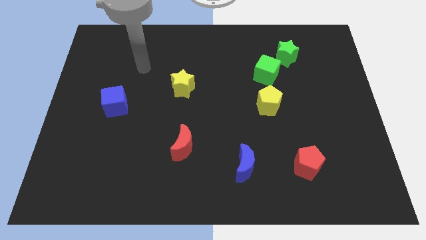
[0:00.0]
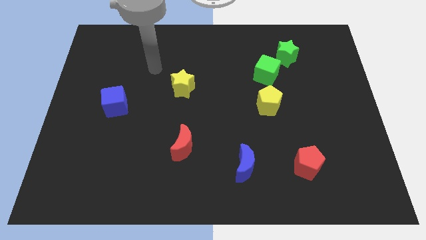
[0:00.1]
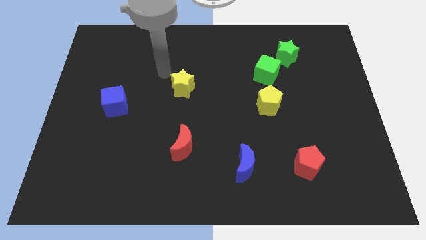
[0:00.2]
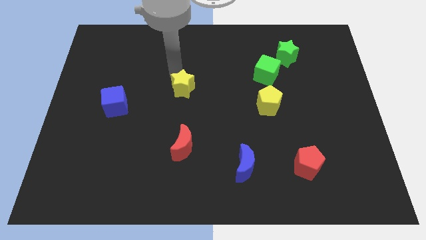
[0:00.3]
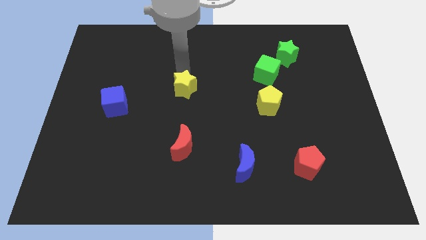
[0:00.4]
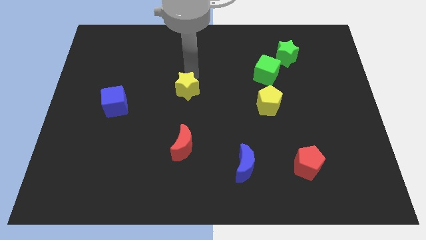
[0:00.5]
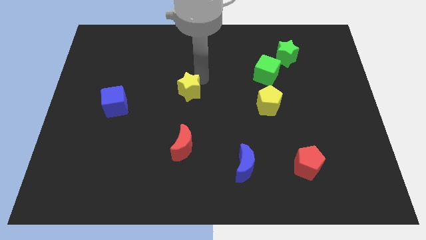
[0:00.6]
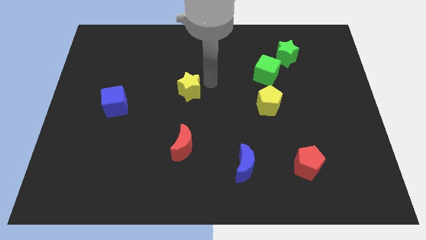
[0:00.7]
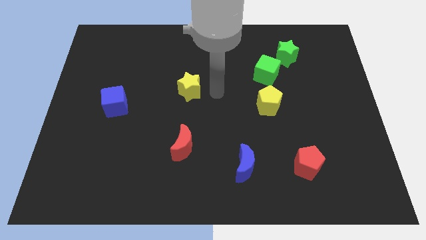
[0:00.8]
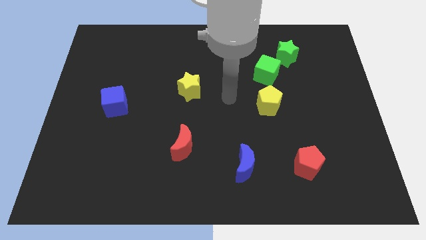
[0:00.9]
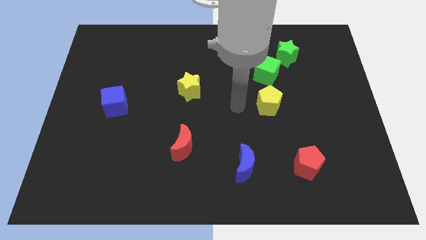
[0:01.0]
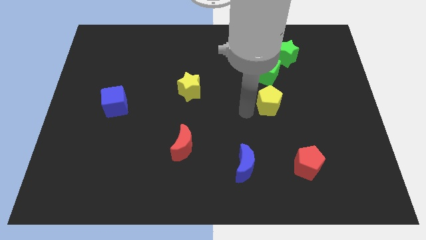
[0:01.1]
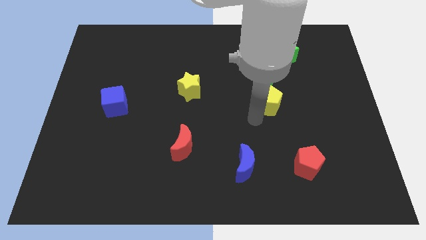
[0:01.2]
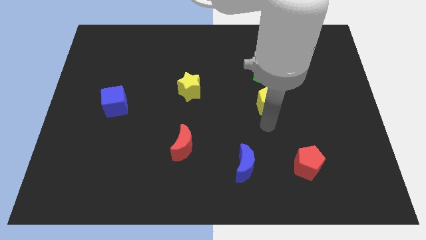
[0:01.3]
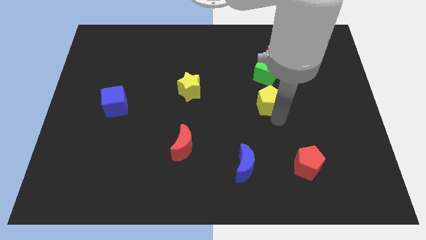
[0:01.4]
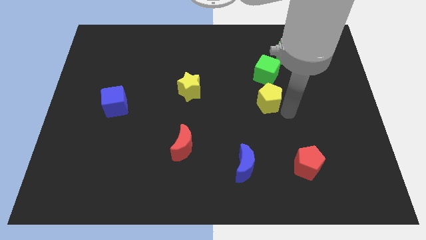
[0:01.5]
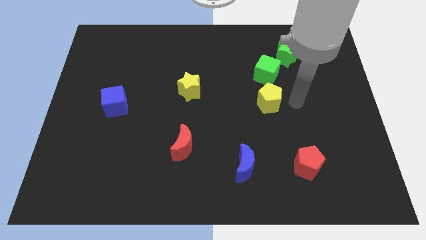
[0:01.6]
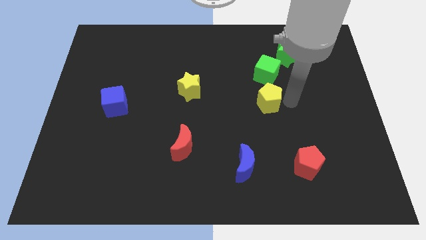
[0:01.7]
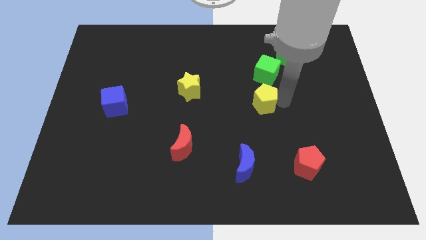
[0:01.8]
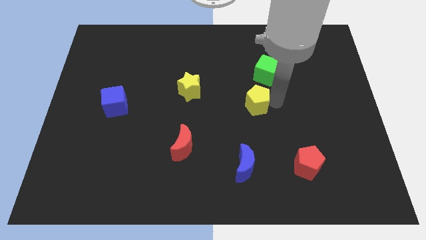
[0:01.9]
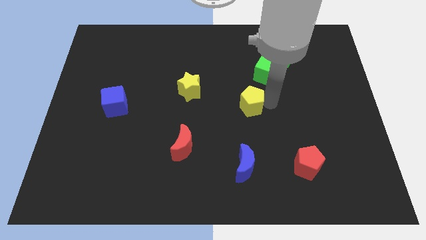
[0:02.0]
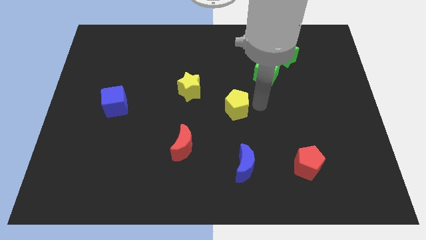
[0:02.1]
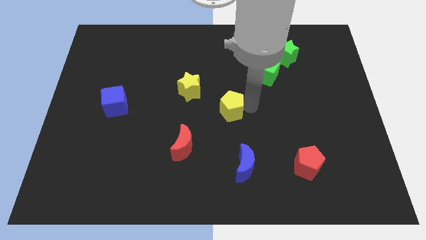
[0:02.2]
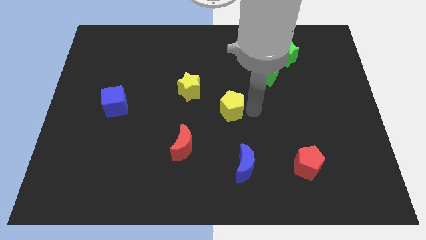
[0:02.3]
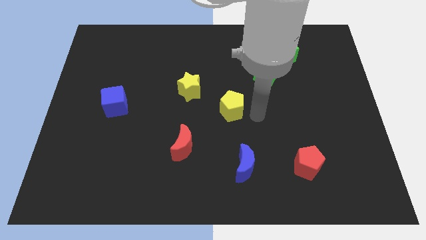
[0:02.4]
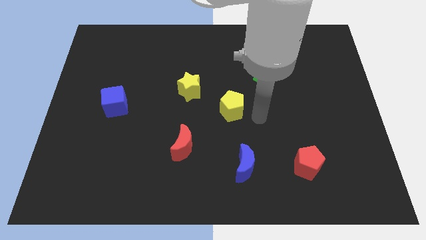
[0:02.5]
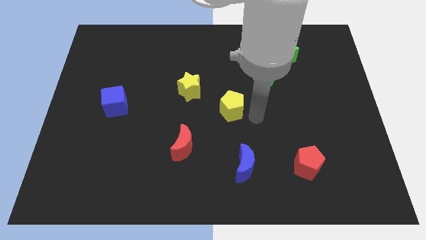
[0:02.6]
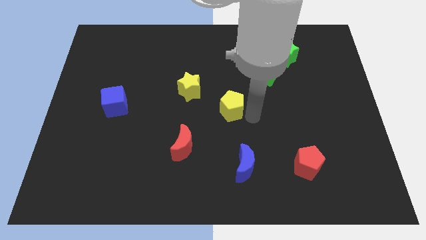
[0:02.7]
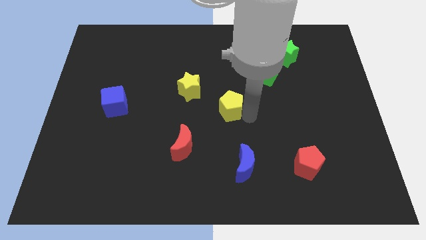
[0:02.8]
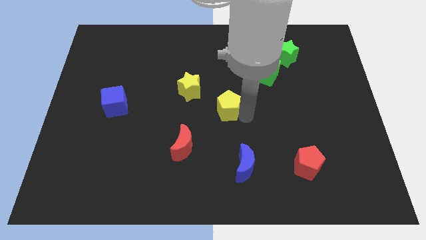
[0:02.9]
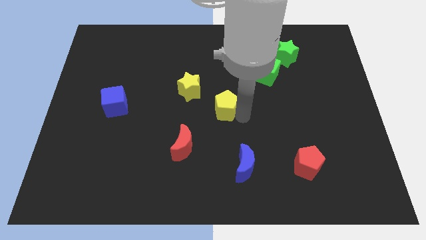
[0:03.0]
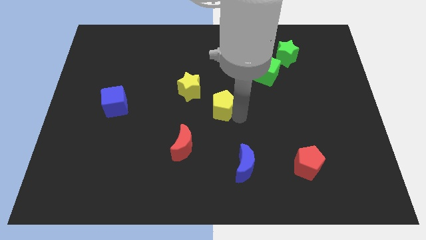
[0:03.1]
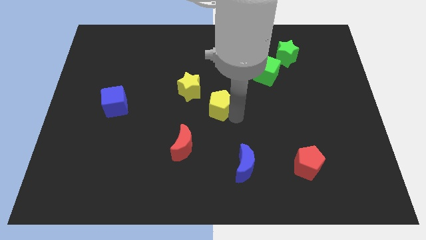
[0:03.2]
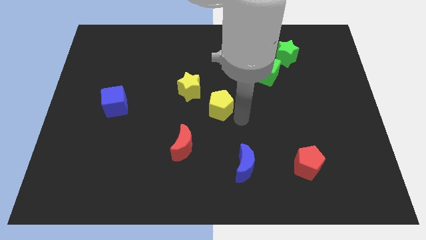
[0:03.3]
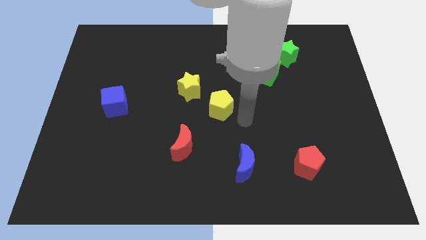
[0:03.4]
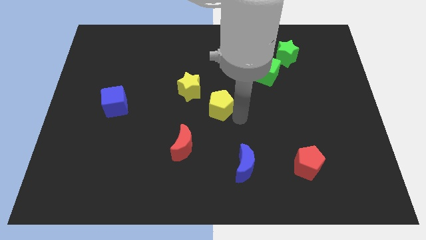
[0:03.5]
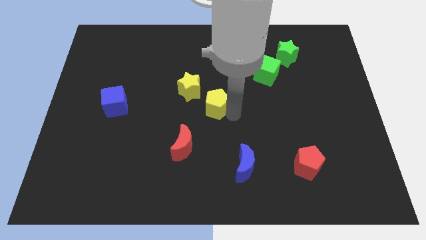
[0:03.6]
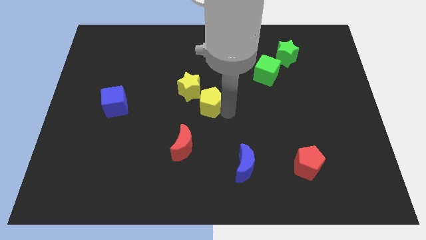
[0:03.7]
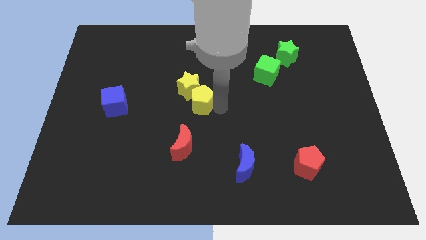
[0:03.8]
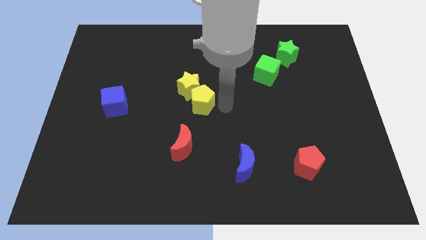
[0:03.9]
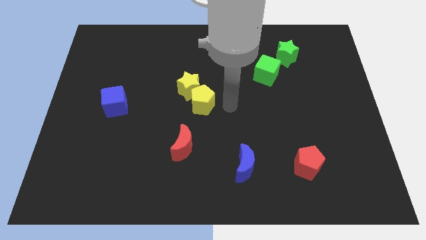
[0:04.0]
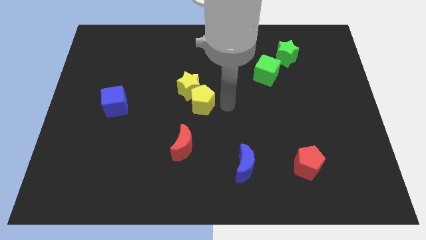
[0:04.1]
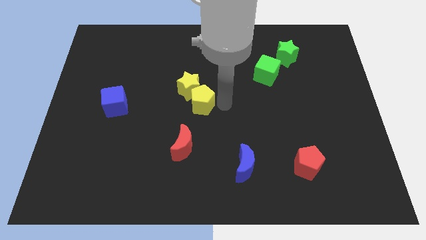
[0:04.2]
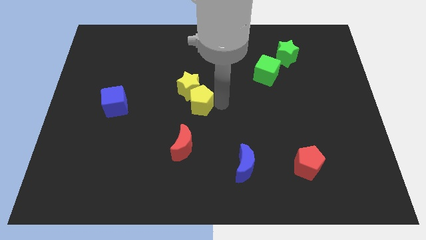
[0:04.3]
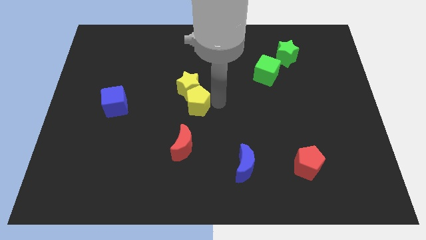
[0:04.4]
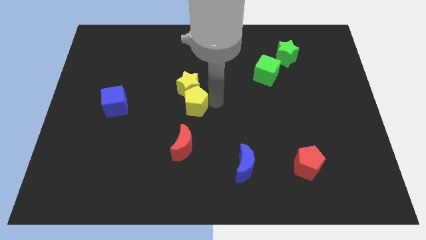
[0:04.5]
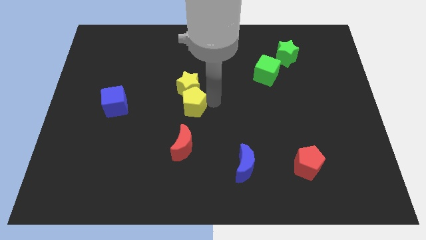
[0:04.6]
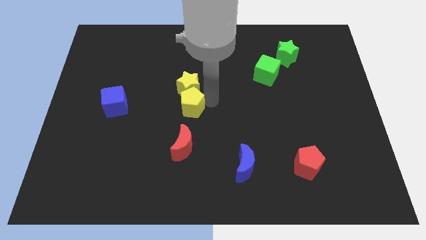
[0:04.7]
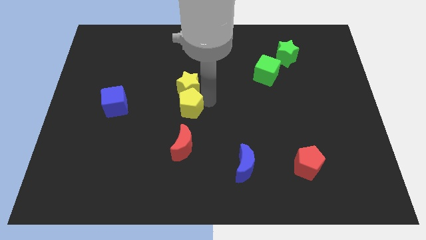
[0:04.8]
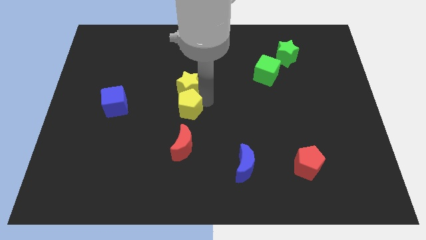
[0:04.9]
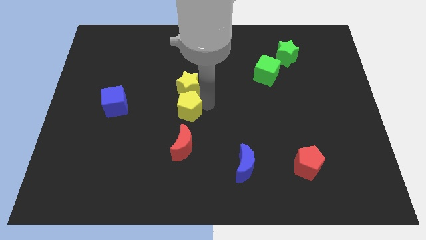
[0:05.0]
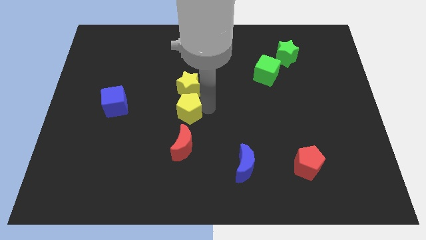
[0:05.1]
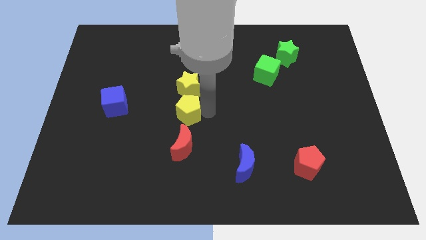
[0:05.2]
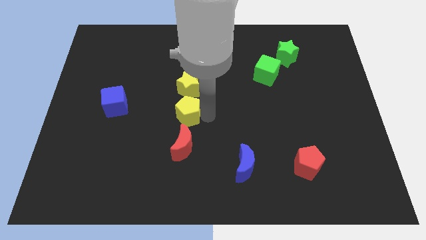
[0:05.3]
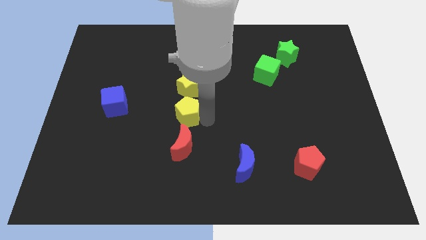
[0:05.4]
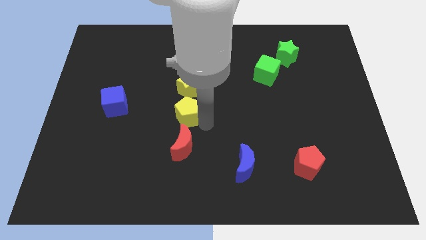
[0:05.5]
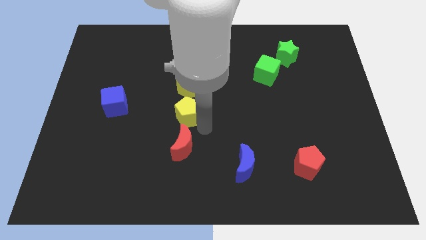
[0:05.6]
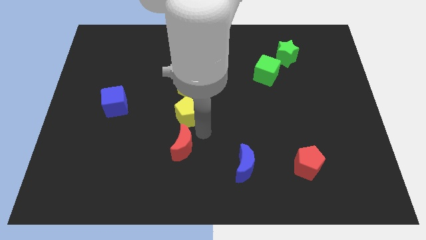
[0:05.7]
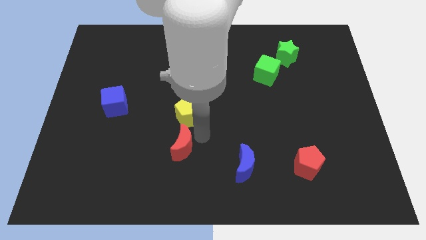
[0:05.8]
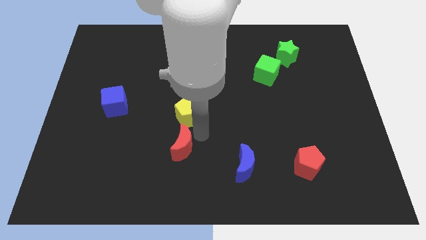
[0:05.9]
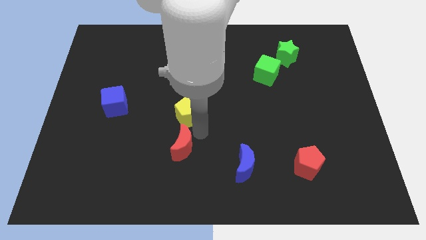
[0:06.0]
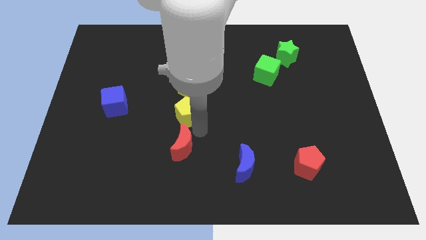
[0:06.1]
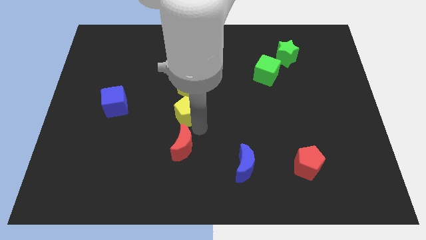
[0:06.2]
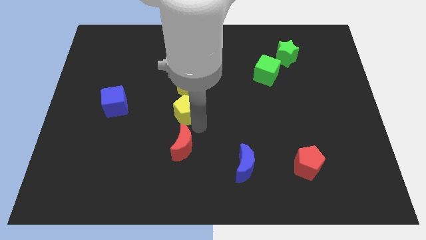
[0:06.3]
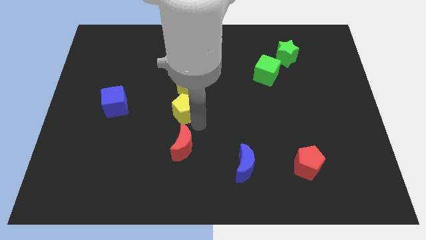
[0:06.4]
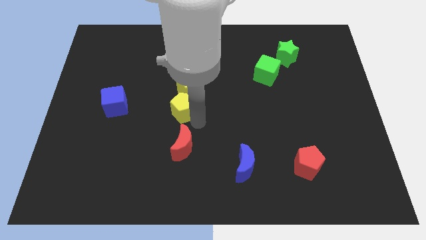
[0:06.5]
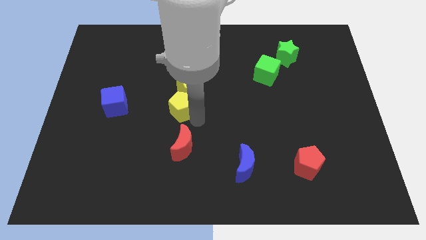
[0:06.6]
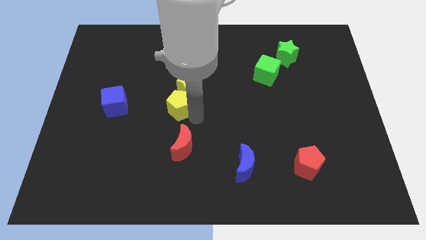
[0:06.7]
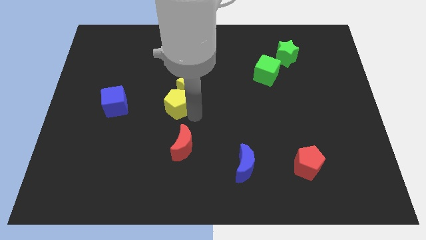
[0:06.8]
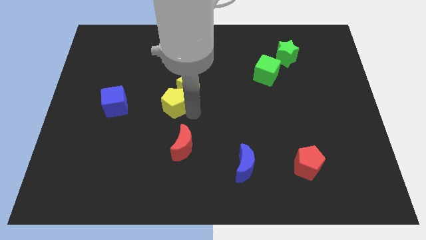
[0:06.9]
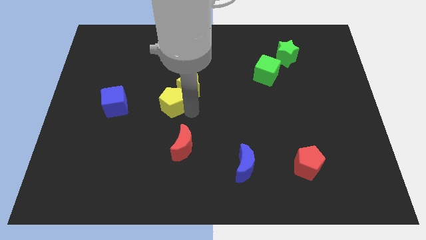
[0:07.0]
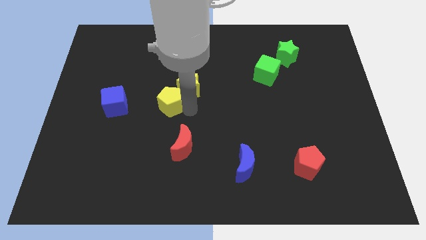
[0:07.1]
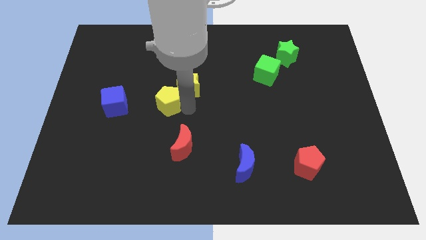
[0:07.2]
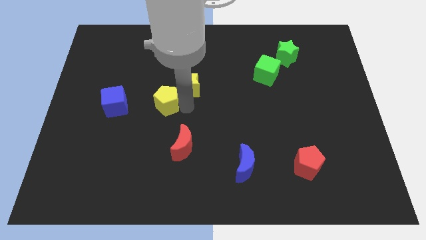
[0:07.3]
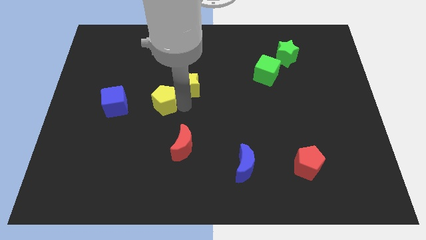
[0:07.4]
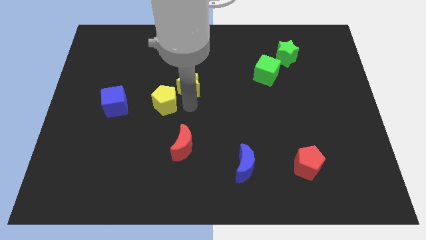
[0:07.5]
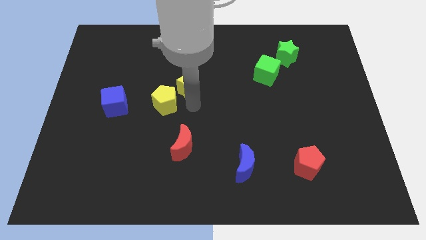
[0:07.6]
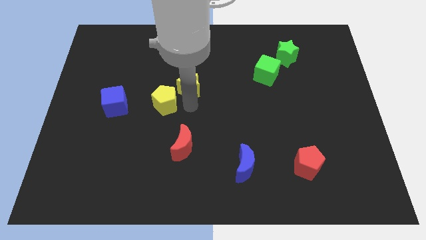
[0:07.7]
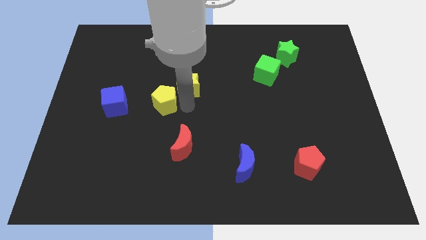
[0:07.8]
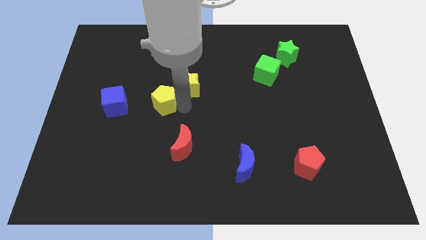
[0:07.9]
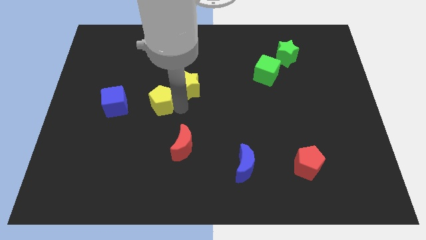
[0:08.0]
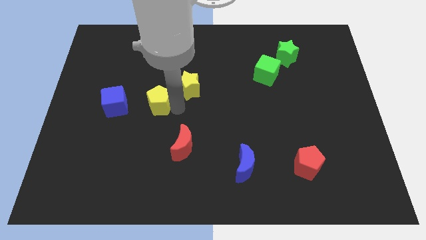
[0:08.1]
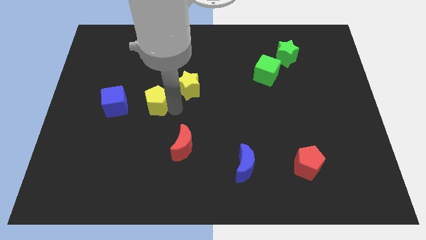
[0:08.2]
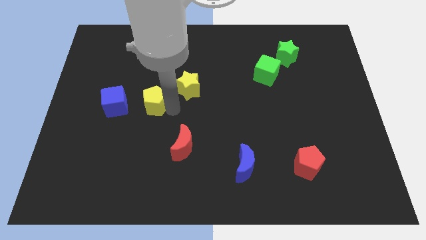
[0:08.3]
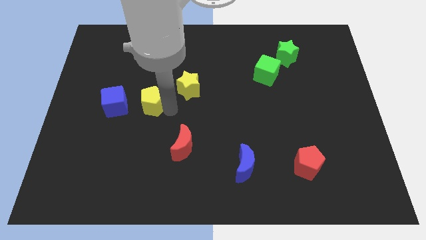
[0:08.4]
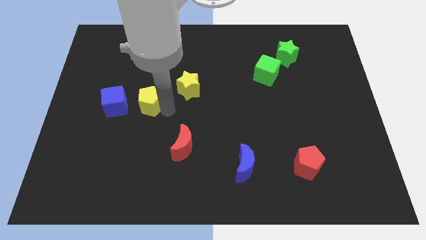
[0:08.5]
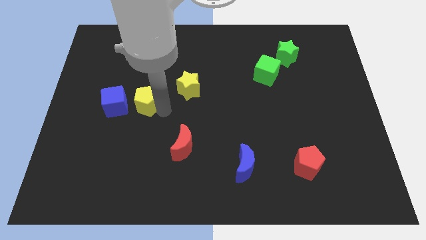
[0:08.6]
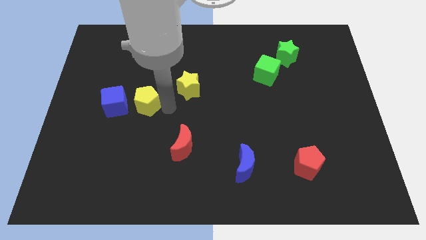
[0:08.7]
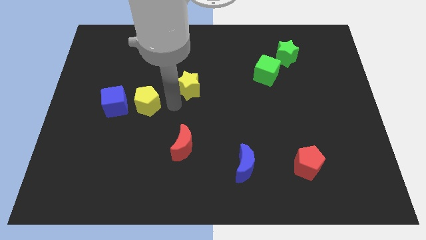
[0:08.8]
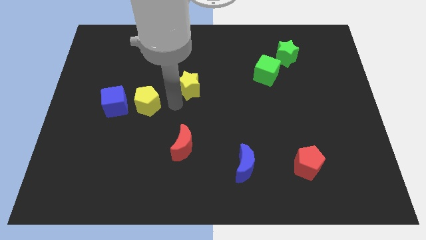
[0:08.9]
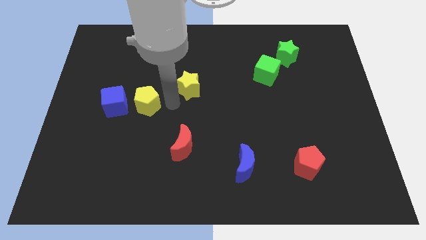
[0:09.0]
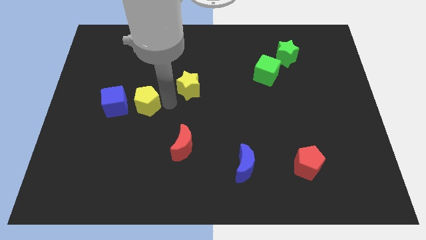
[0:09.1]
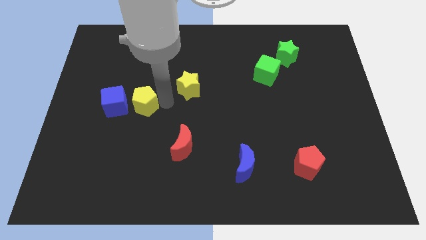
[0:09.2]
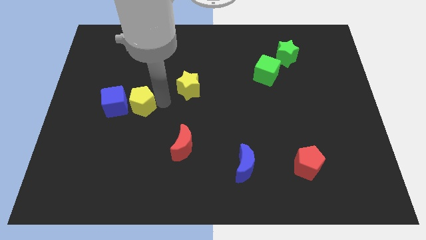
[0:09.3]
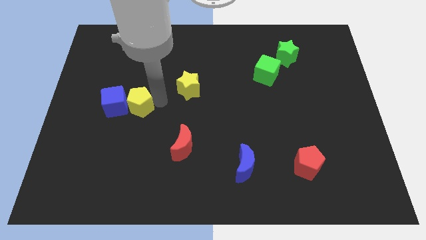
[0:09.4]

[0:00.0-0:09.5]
push the yellow pentagon to the blue cube
